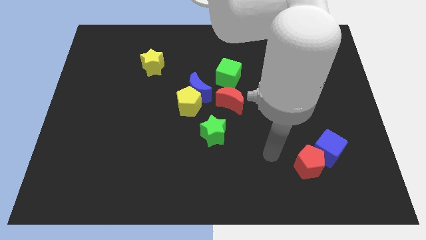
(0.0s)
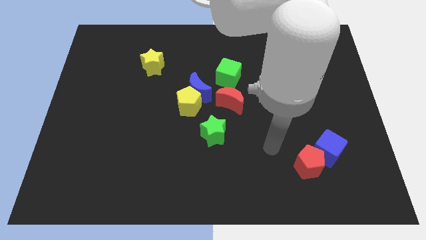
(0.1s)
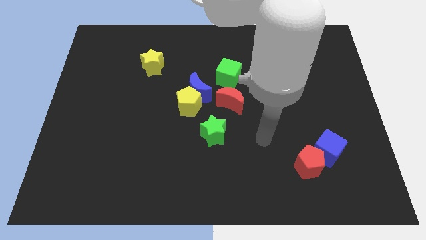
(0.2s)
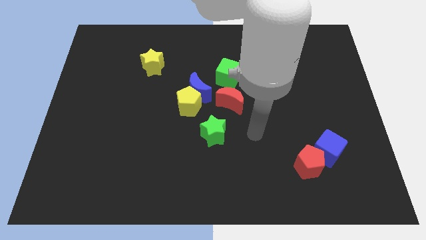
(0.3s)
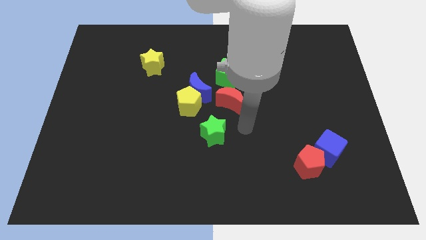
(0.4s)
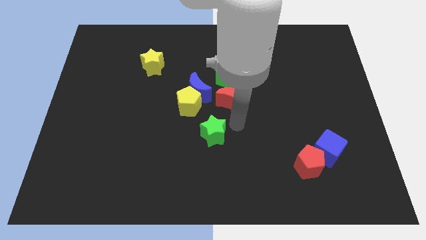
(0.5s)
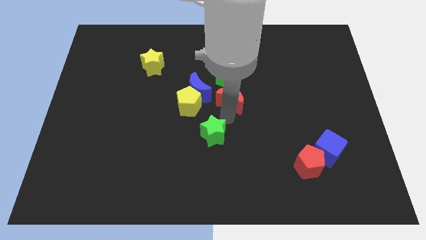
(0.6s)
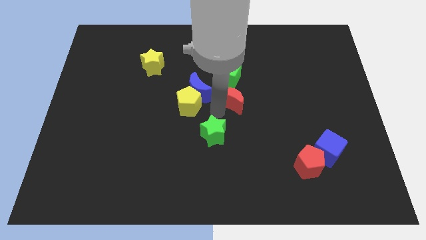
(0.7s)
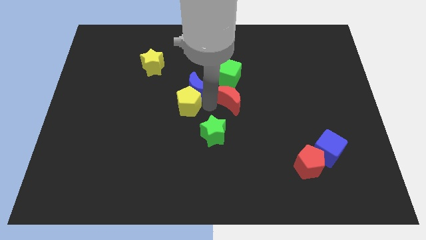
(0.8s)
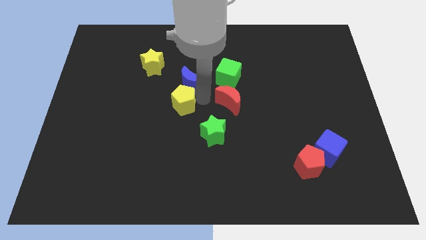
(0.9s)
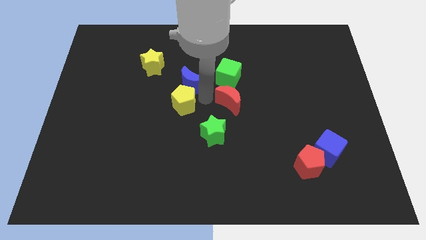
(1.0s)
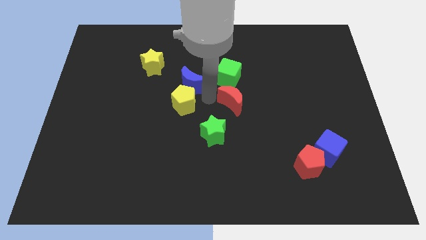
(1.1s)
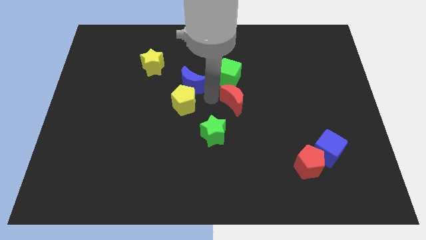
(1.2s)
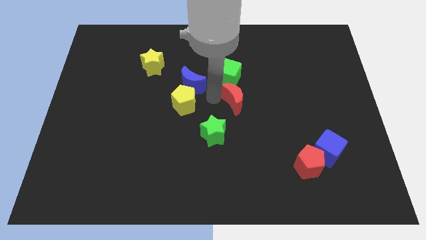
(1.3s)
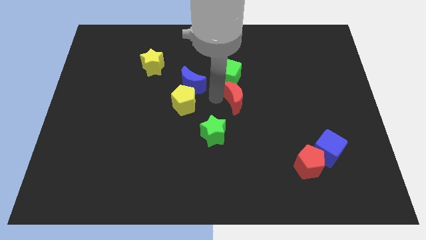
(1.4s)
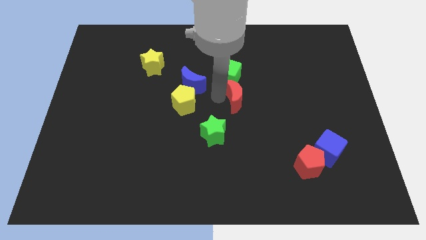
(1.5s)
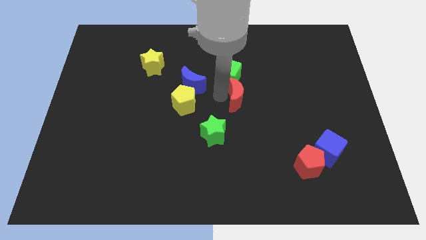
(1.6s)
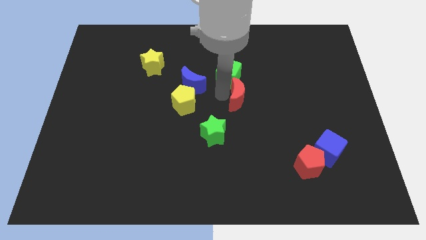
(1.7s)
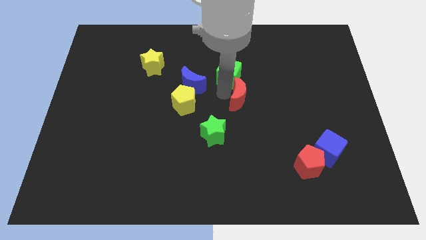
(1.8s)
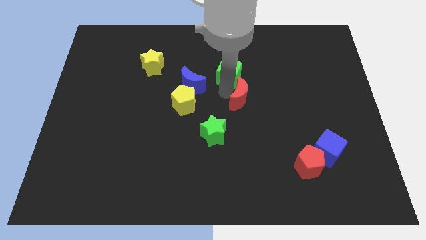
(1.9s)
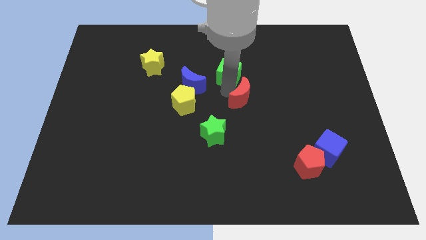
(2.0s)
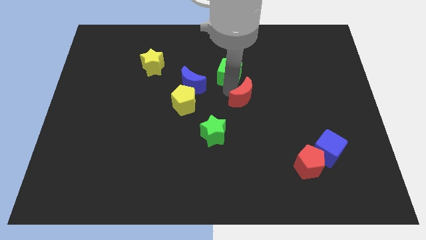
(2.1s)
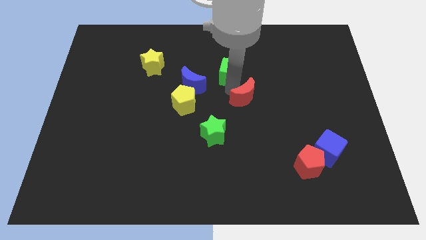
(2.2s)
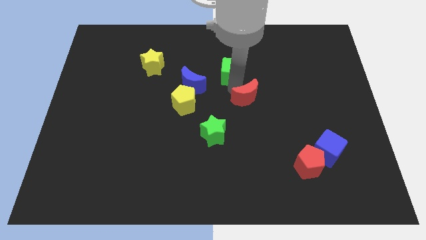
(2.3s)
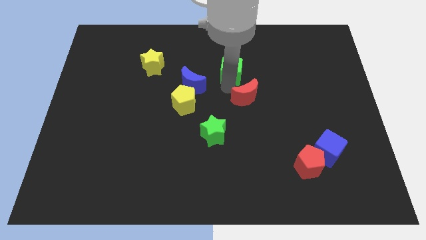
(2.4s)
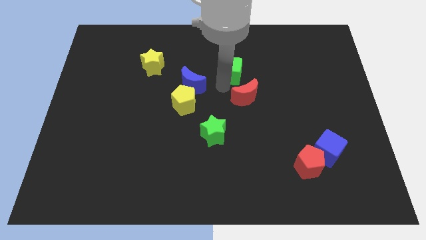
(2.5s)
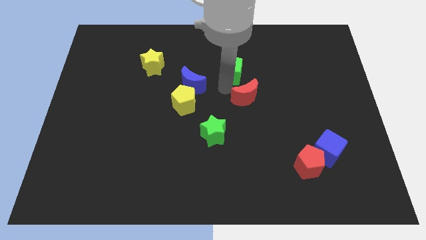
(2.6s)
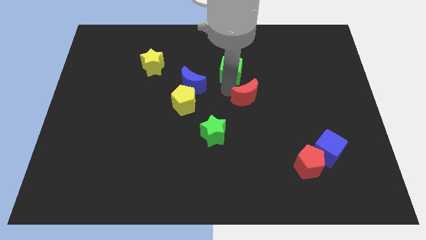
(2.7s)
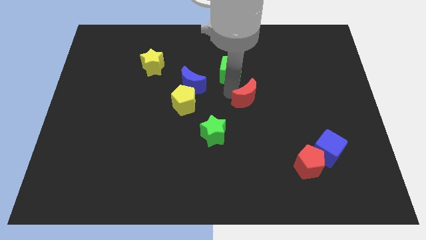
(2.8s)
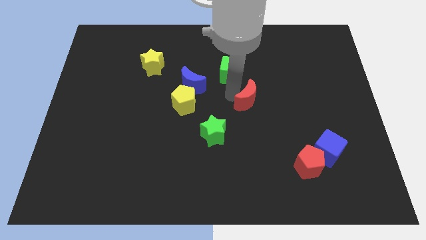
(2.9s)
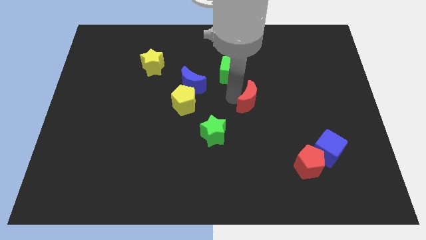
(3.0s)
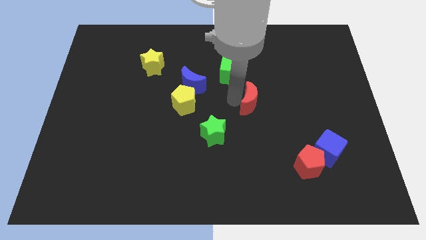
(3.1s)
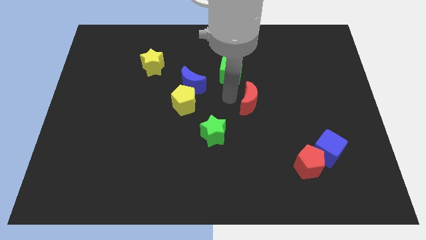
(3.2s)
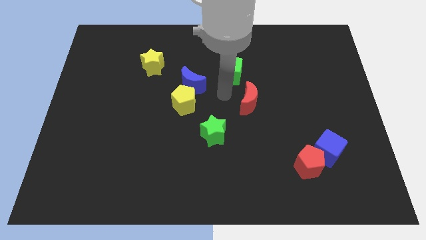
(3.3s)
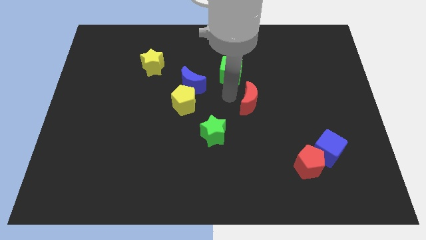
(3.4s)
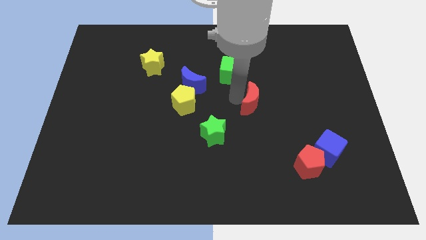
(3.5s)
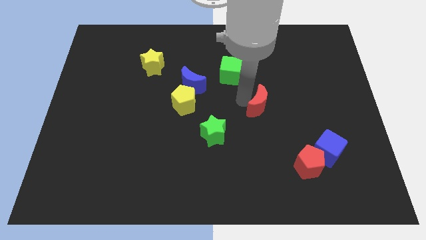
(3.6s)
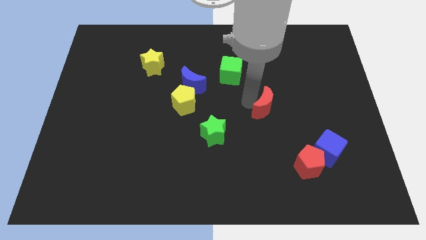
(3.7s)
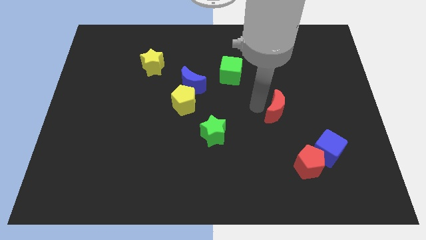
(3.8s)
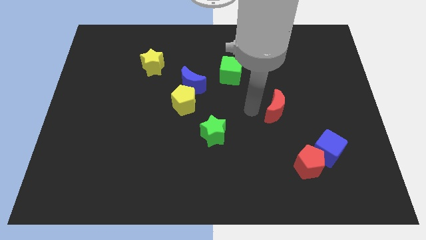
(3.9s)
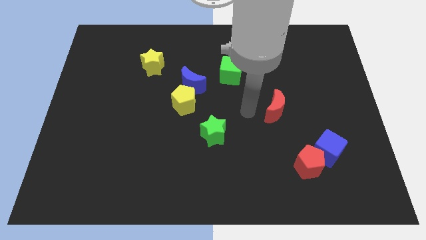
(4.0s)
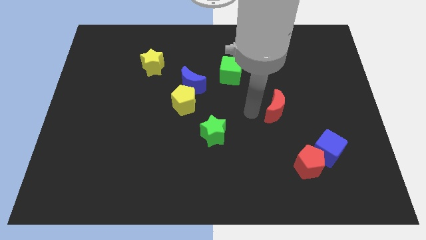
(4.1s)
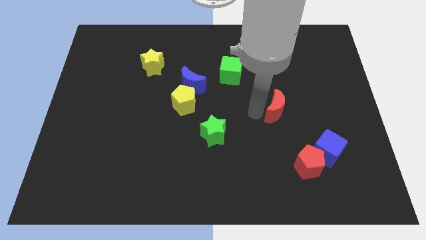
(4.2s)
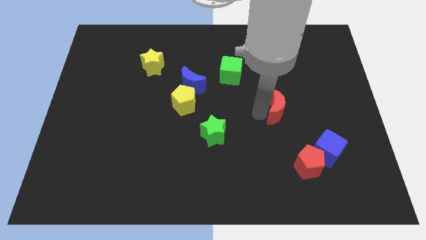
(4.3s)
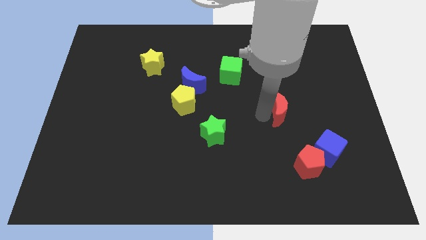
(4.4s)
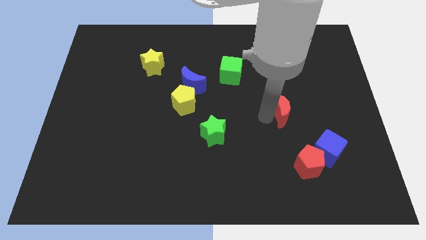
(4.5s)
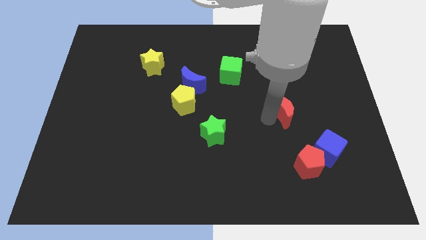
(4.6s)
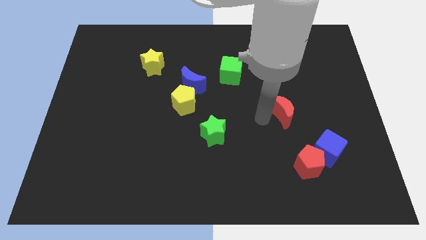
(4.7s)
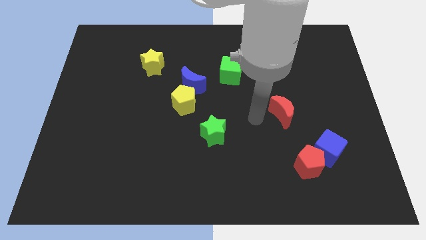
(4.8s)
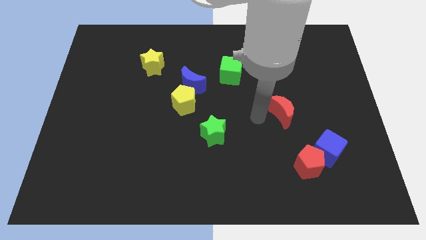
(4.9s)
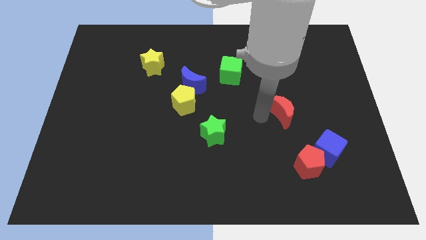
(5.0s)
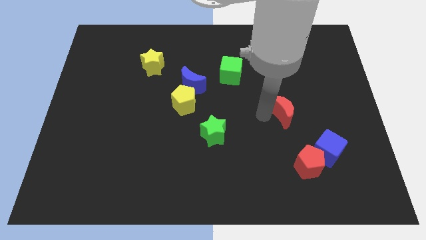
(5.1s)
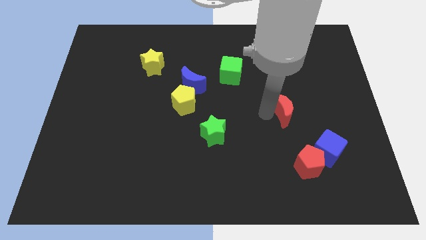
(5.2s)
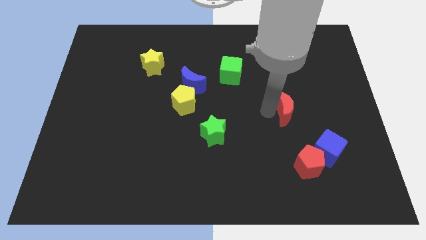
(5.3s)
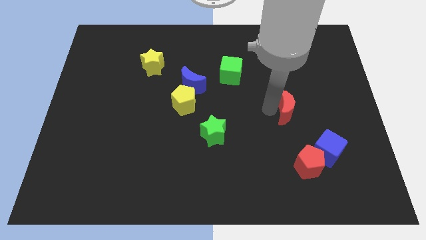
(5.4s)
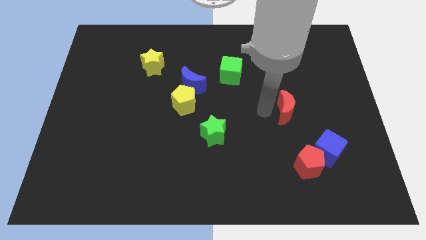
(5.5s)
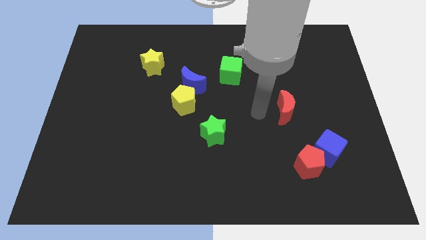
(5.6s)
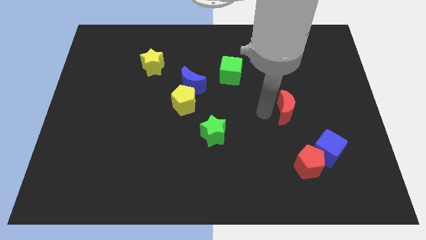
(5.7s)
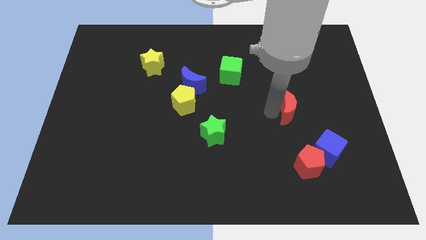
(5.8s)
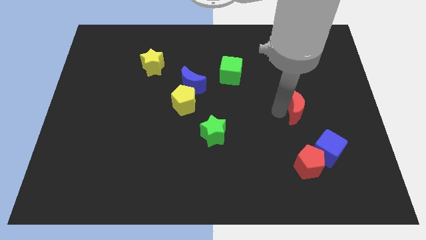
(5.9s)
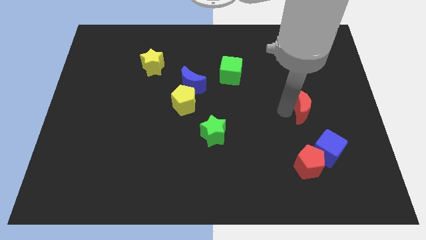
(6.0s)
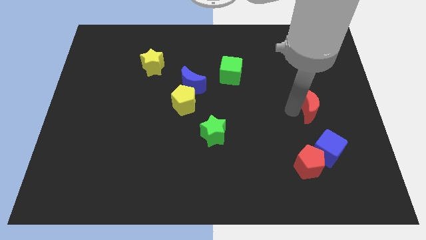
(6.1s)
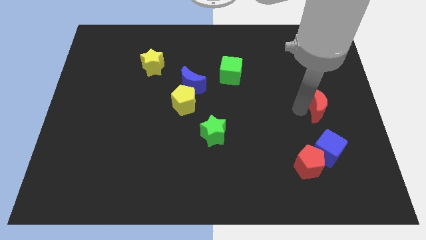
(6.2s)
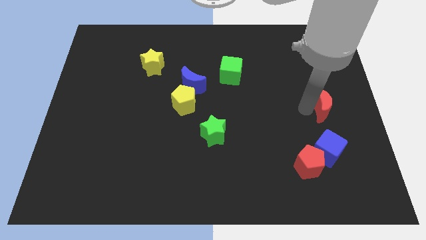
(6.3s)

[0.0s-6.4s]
put the red moon to the right side of the board
